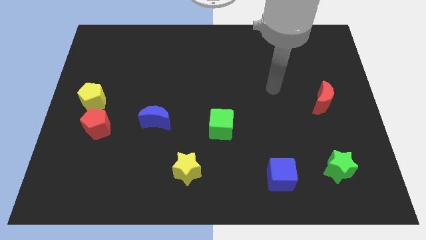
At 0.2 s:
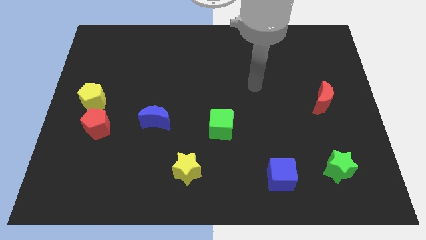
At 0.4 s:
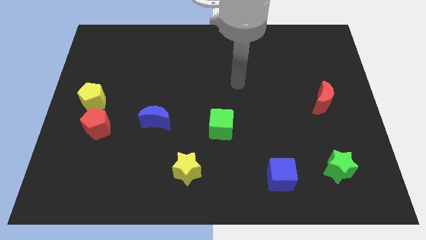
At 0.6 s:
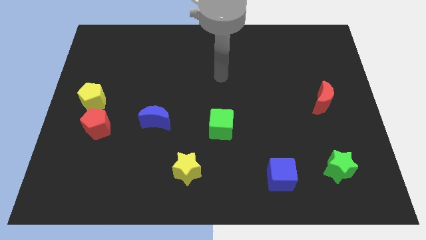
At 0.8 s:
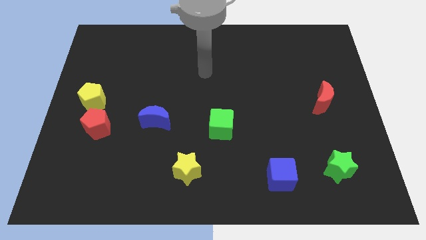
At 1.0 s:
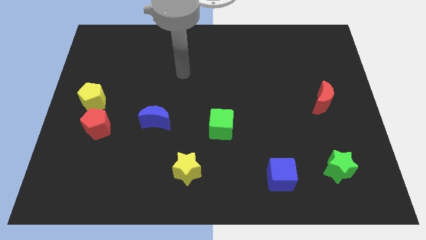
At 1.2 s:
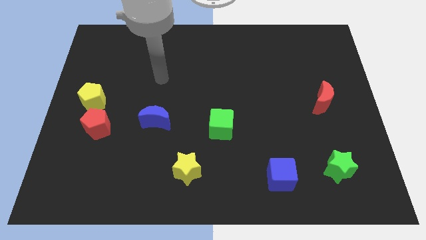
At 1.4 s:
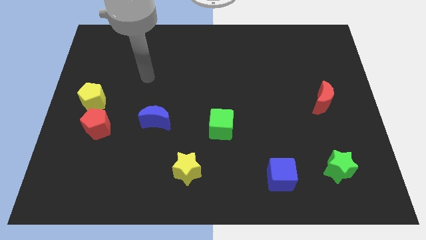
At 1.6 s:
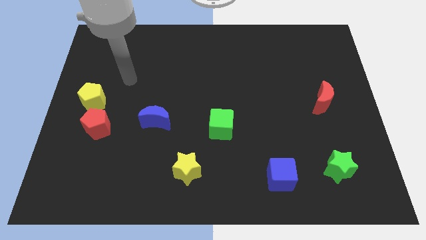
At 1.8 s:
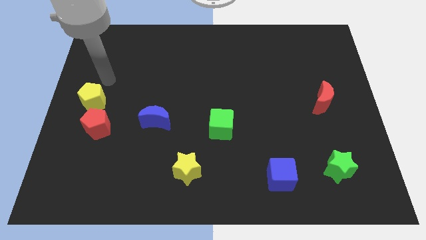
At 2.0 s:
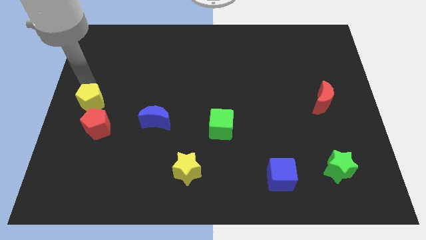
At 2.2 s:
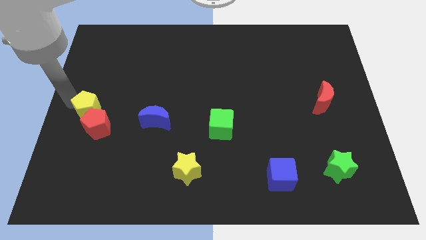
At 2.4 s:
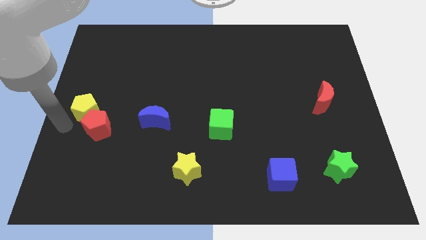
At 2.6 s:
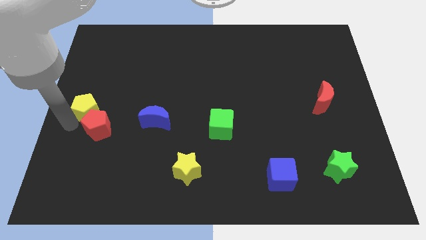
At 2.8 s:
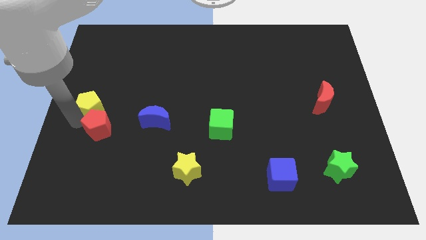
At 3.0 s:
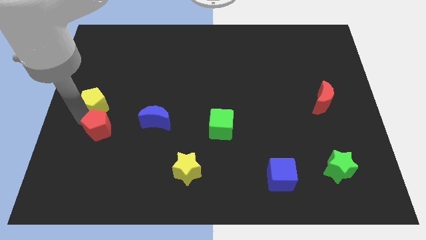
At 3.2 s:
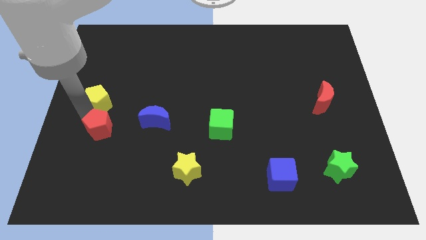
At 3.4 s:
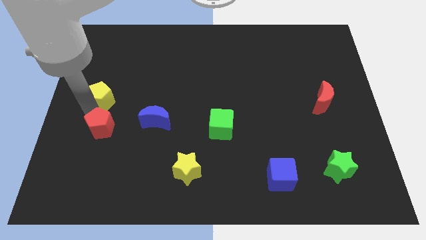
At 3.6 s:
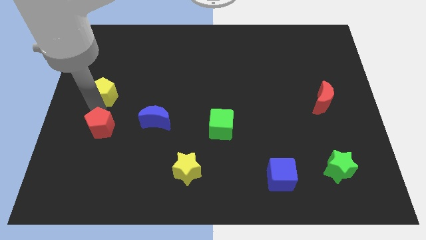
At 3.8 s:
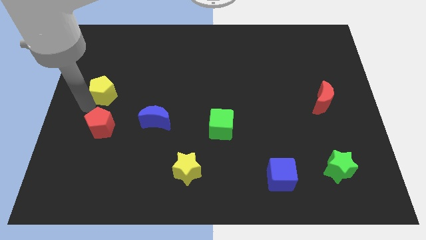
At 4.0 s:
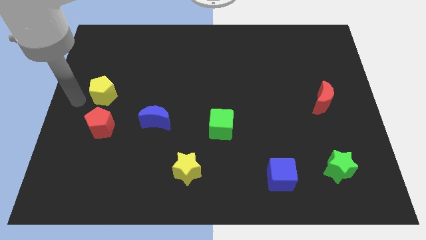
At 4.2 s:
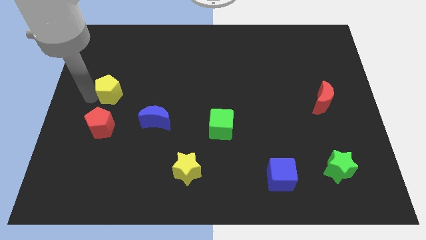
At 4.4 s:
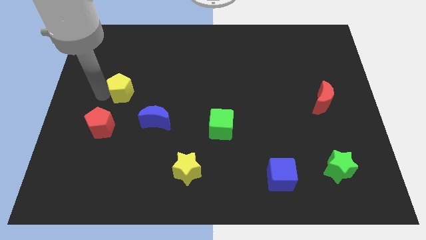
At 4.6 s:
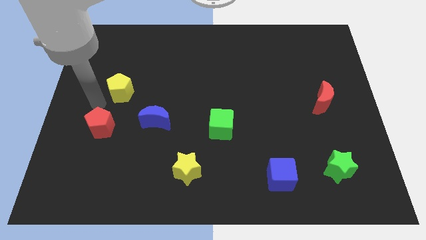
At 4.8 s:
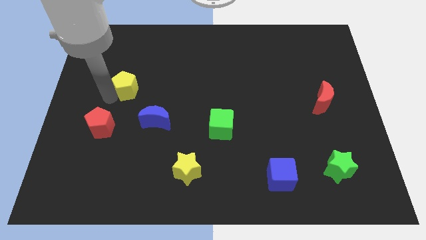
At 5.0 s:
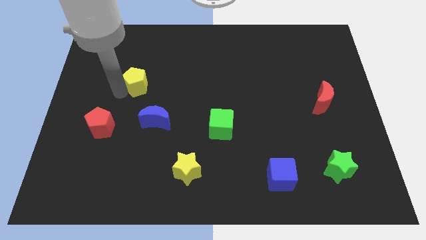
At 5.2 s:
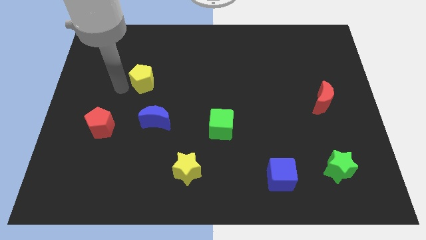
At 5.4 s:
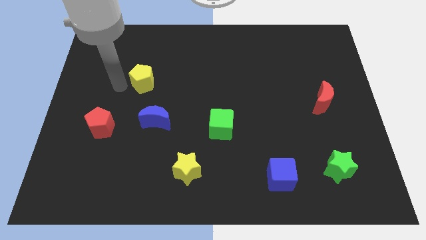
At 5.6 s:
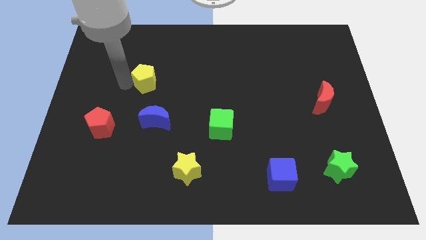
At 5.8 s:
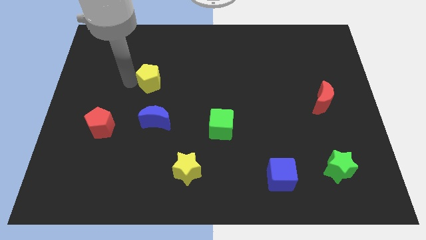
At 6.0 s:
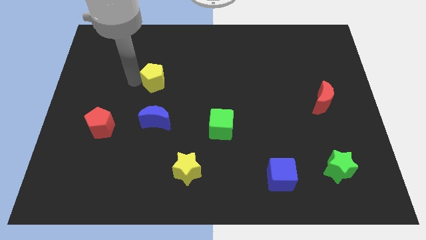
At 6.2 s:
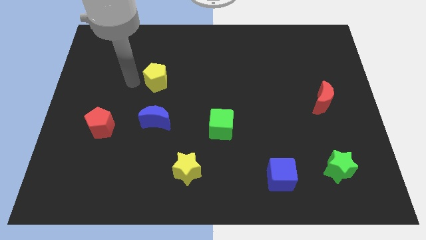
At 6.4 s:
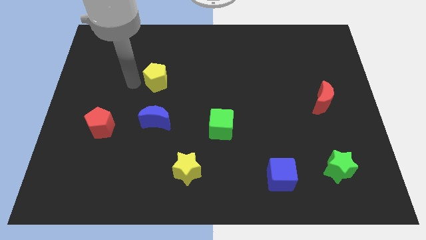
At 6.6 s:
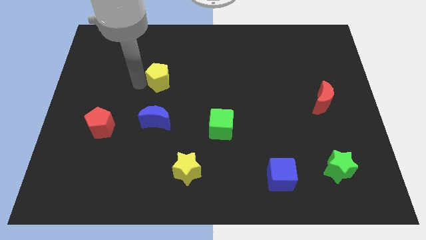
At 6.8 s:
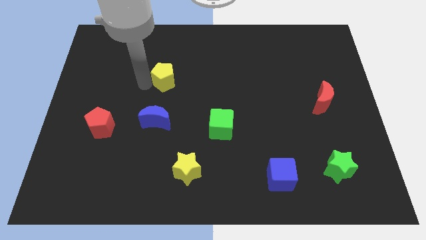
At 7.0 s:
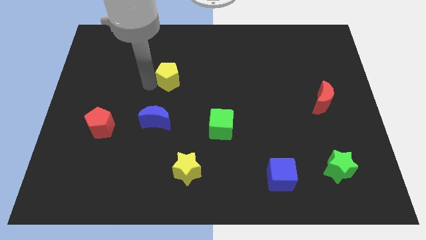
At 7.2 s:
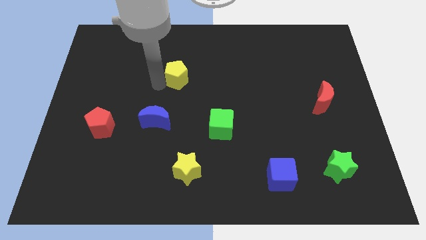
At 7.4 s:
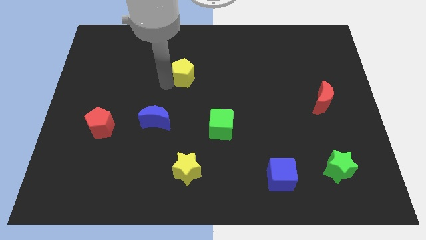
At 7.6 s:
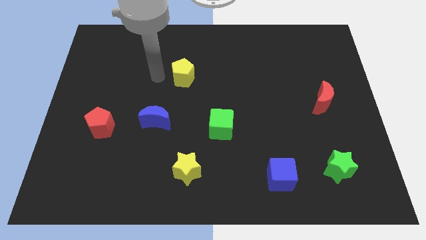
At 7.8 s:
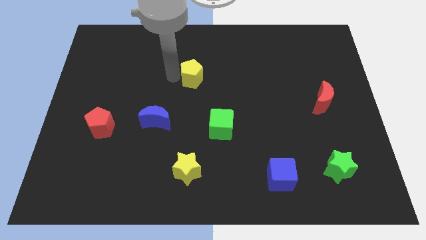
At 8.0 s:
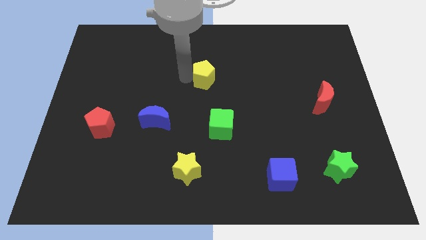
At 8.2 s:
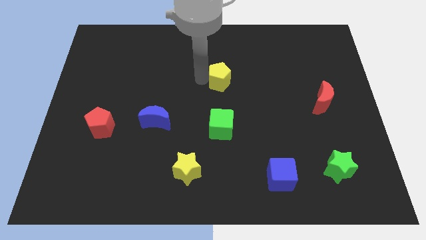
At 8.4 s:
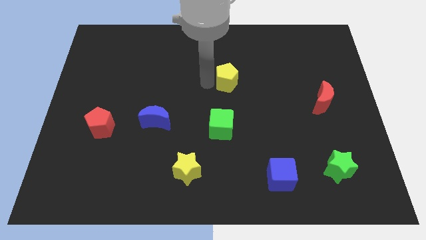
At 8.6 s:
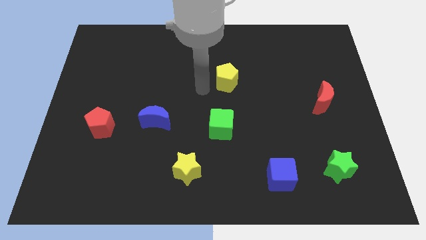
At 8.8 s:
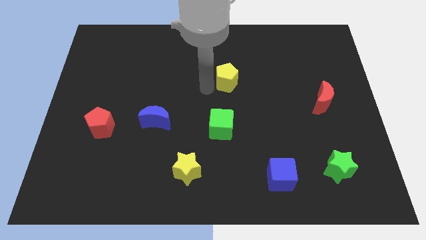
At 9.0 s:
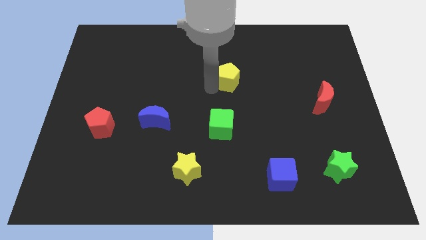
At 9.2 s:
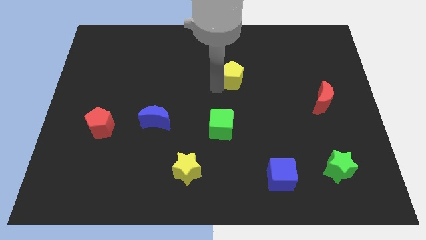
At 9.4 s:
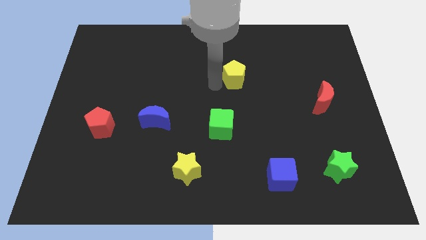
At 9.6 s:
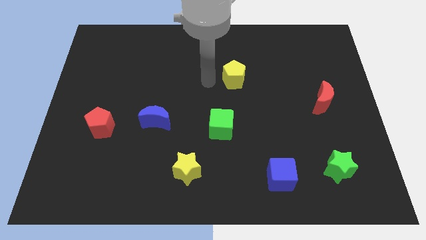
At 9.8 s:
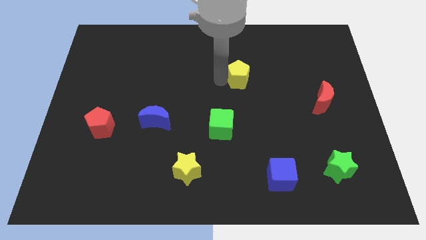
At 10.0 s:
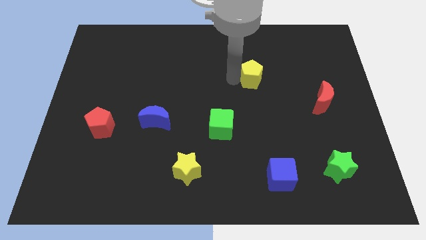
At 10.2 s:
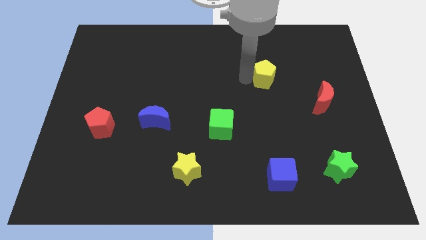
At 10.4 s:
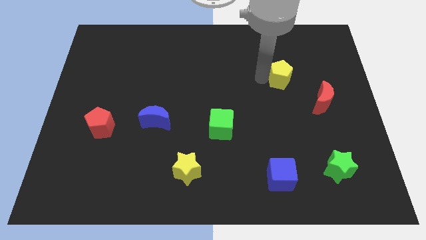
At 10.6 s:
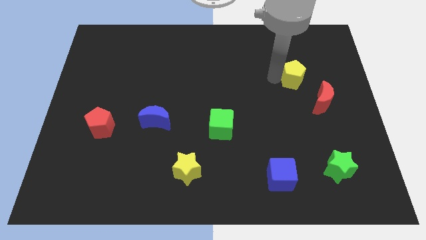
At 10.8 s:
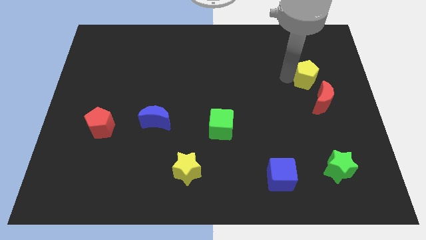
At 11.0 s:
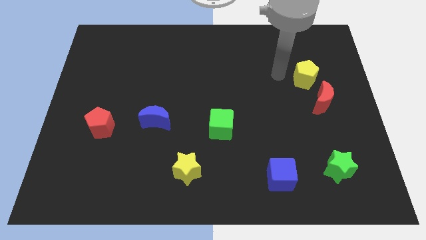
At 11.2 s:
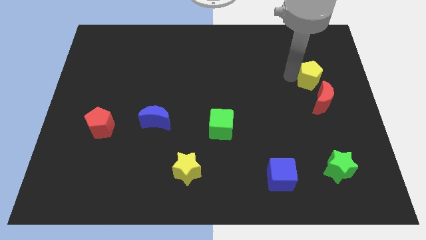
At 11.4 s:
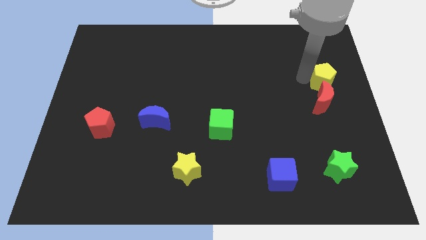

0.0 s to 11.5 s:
push the yellow pentagon to the right side of the board
